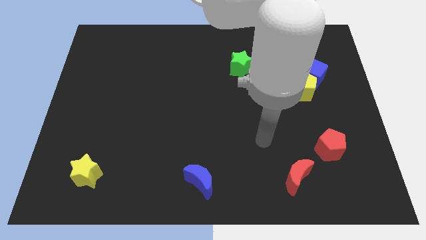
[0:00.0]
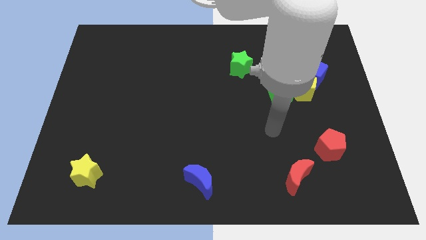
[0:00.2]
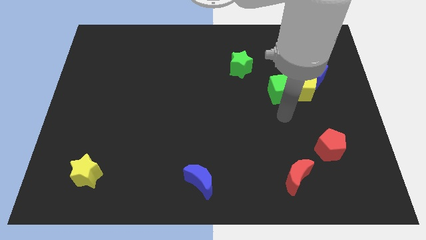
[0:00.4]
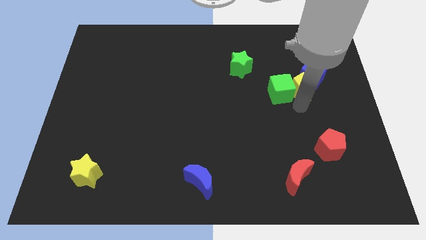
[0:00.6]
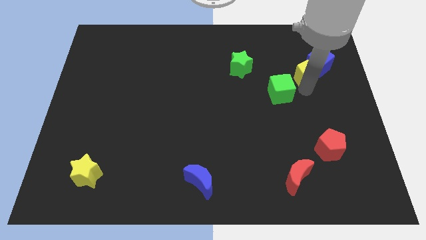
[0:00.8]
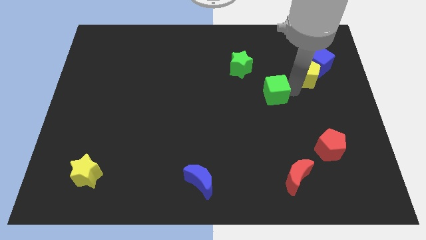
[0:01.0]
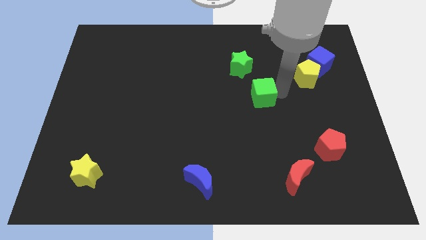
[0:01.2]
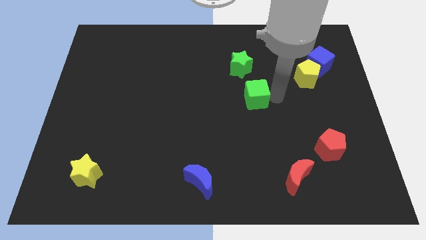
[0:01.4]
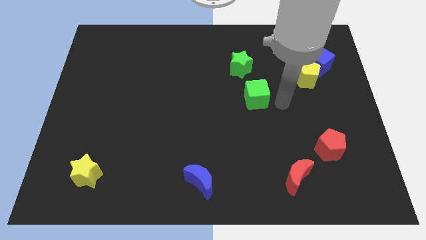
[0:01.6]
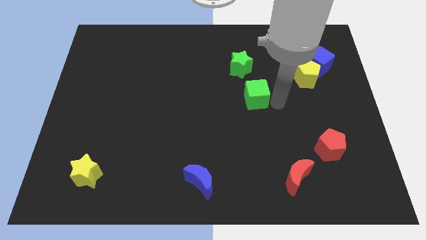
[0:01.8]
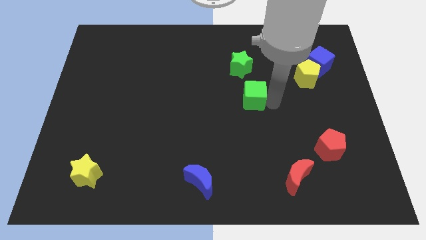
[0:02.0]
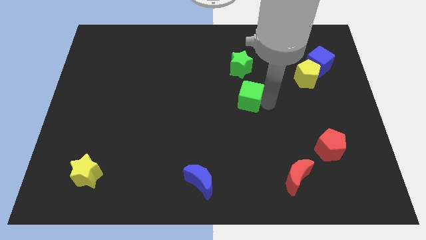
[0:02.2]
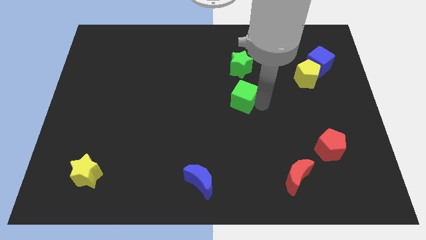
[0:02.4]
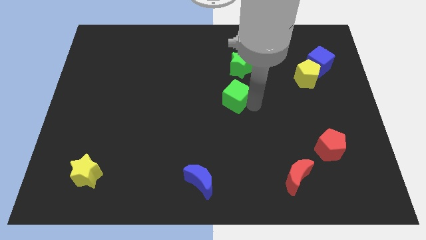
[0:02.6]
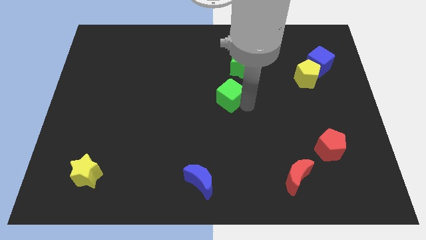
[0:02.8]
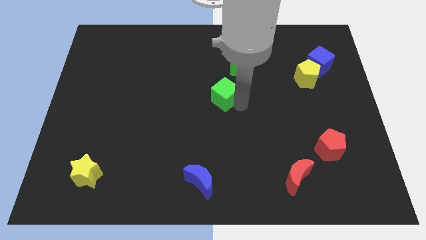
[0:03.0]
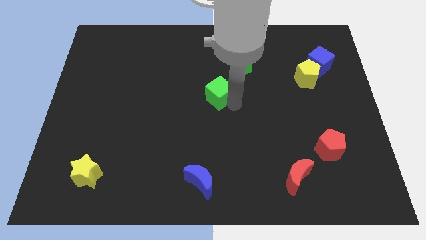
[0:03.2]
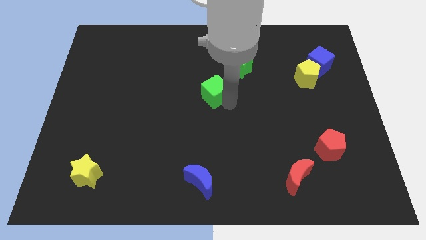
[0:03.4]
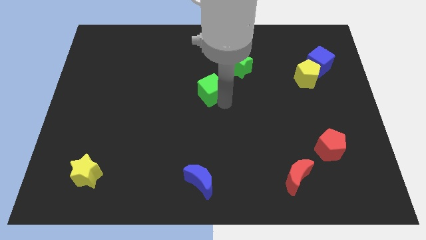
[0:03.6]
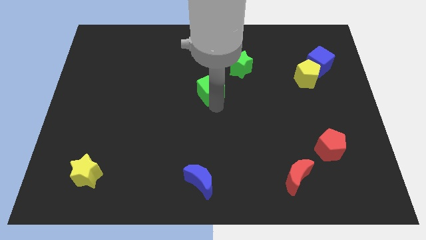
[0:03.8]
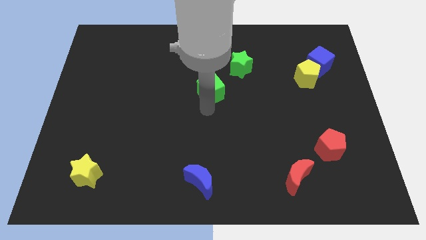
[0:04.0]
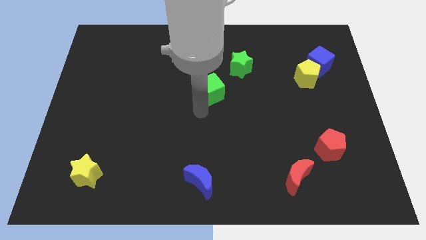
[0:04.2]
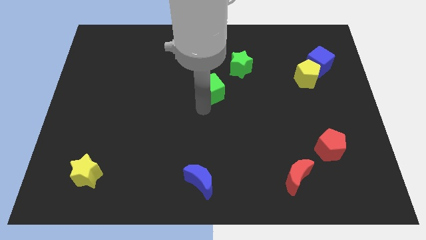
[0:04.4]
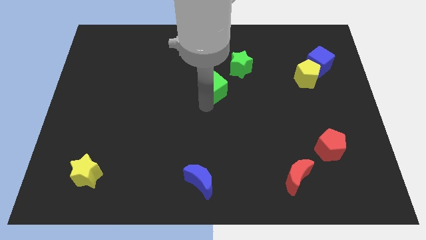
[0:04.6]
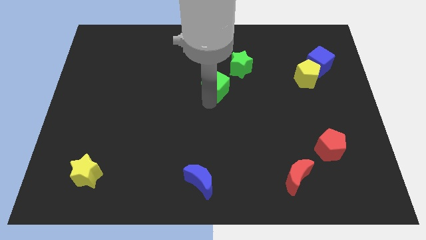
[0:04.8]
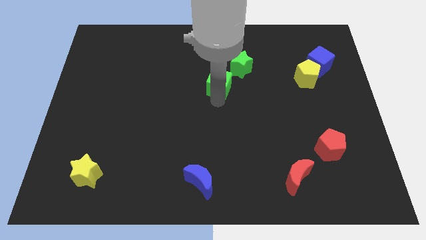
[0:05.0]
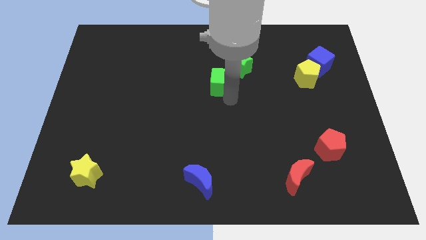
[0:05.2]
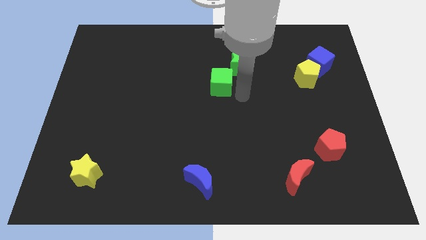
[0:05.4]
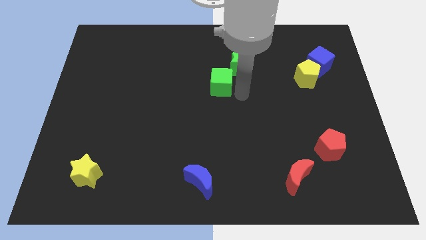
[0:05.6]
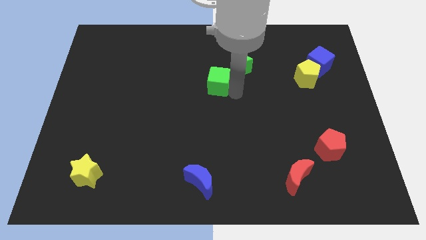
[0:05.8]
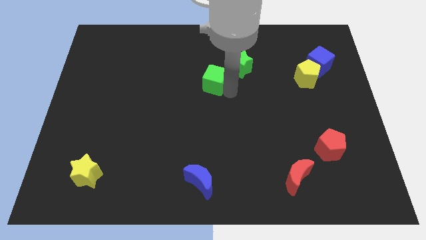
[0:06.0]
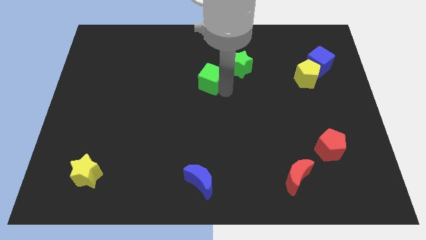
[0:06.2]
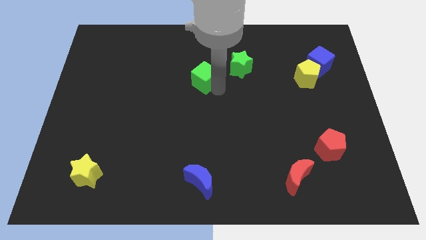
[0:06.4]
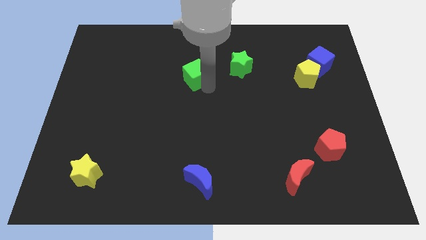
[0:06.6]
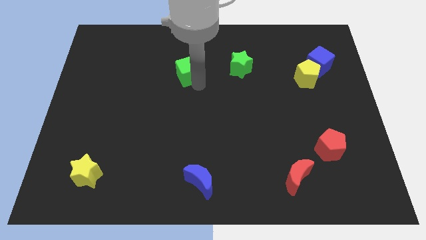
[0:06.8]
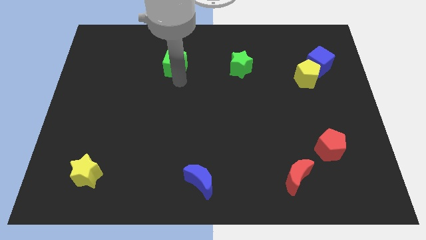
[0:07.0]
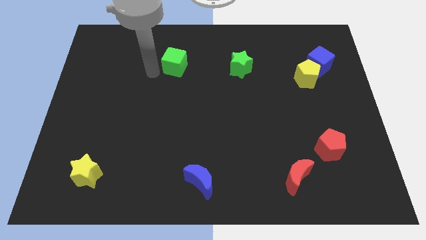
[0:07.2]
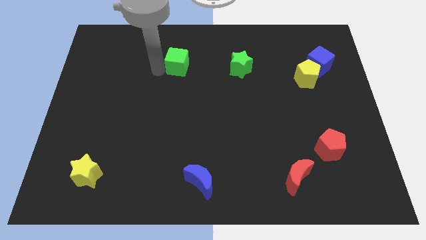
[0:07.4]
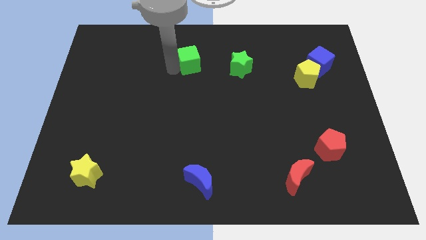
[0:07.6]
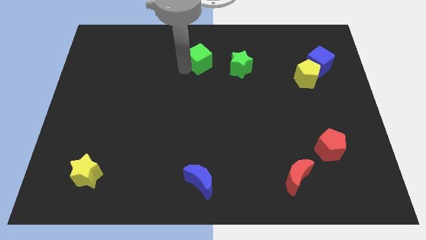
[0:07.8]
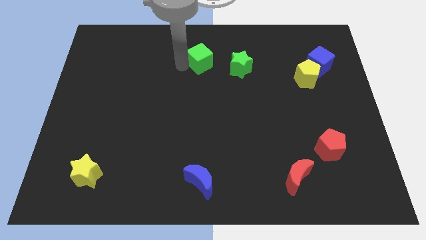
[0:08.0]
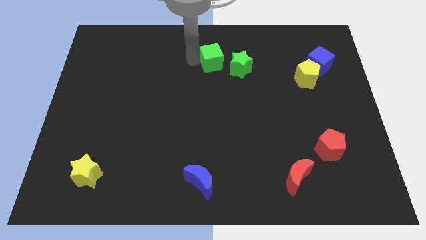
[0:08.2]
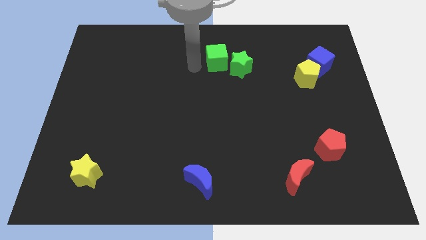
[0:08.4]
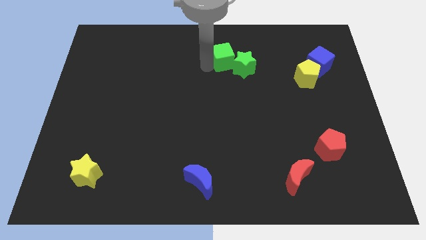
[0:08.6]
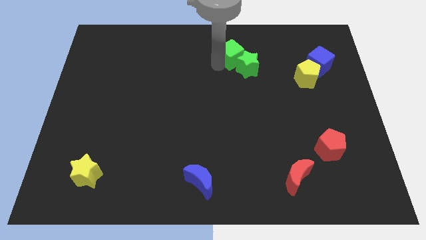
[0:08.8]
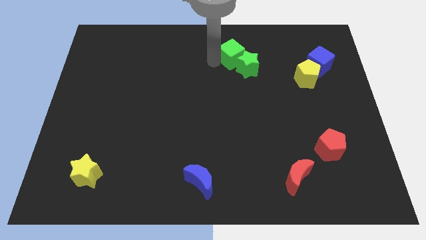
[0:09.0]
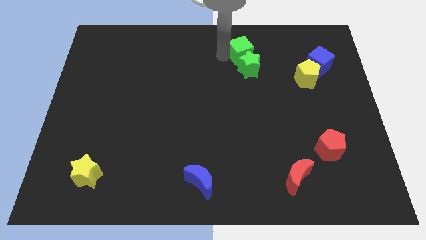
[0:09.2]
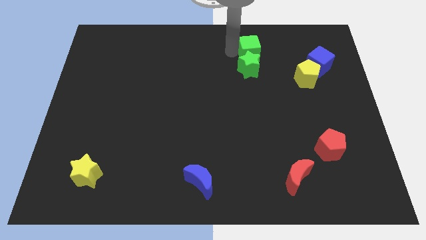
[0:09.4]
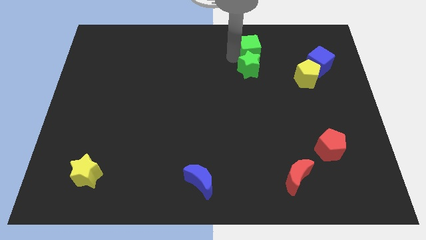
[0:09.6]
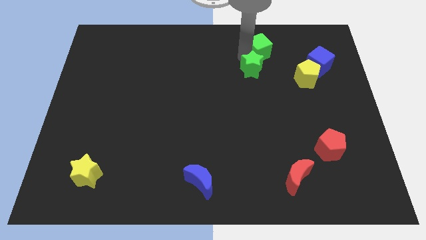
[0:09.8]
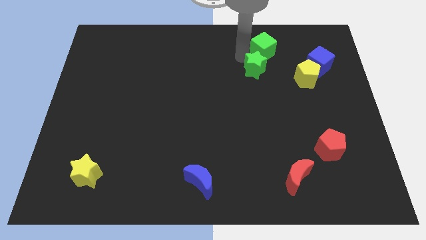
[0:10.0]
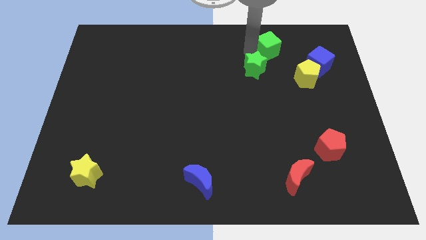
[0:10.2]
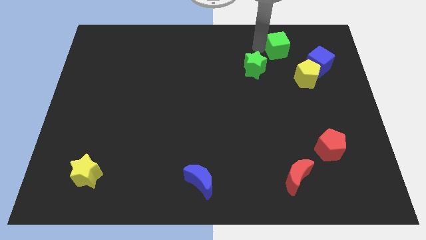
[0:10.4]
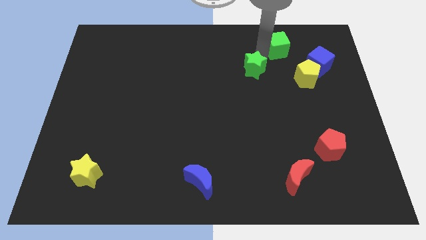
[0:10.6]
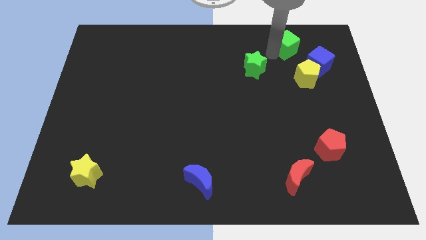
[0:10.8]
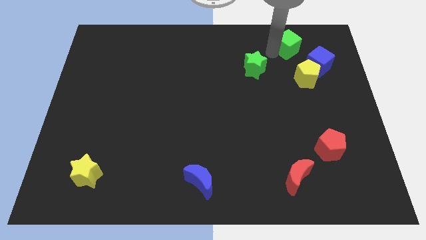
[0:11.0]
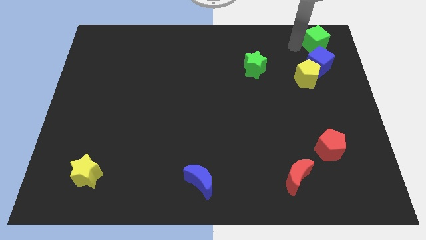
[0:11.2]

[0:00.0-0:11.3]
slide the green cube to the top right corner

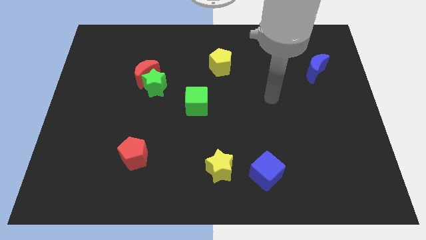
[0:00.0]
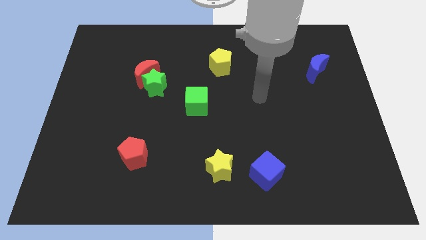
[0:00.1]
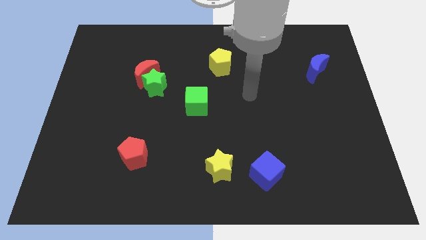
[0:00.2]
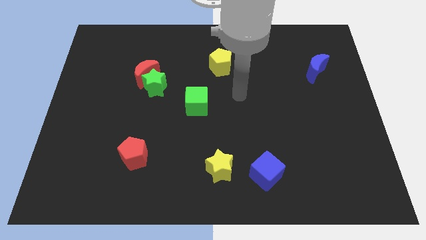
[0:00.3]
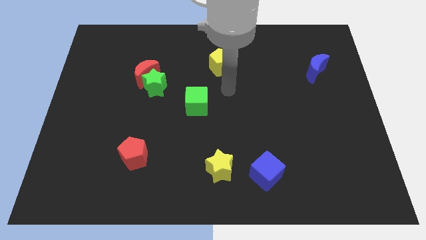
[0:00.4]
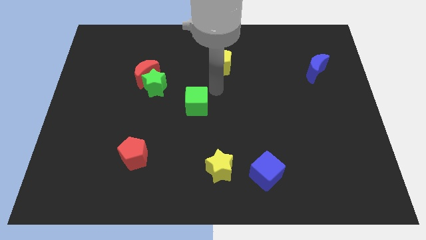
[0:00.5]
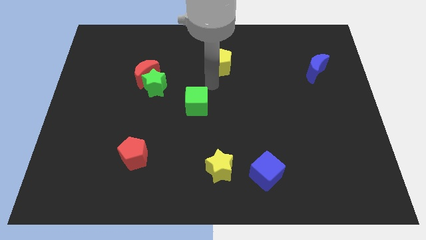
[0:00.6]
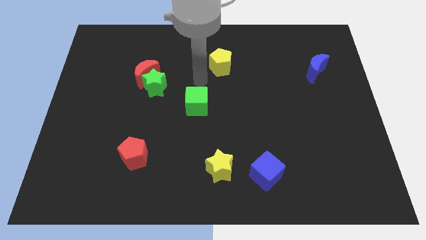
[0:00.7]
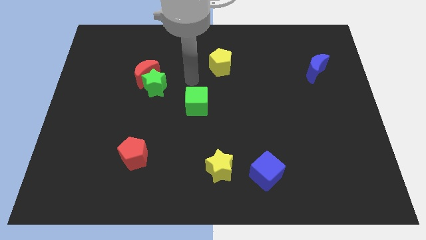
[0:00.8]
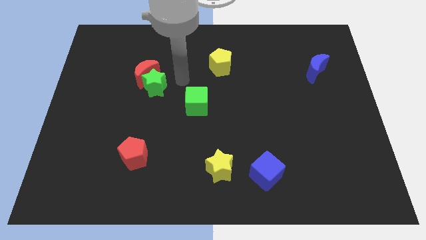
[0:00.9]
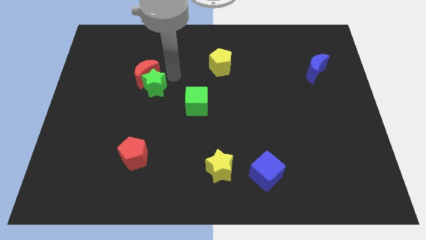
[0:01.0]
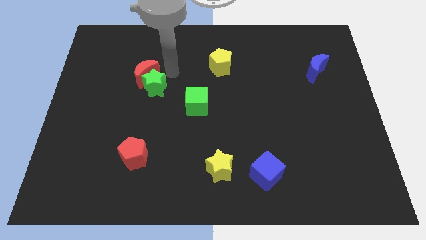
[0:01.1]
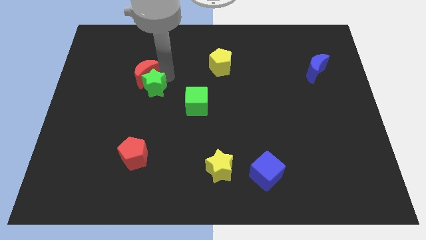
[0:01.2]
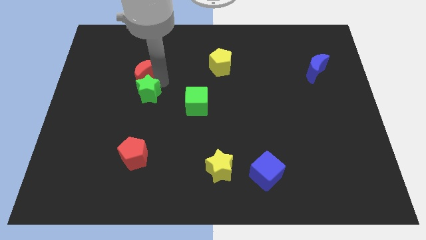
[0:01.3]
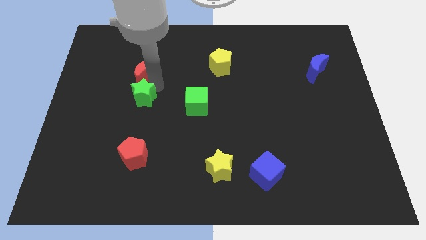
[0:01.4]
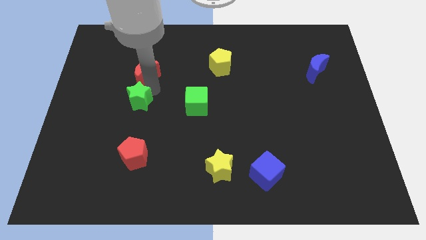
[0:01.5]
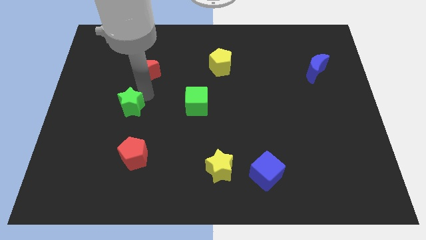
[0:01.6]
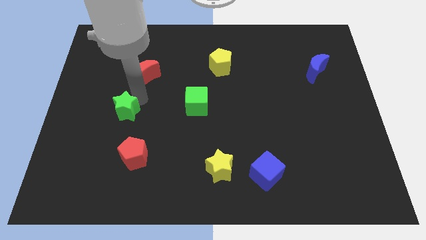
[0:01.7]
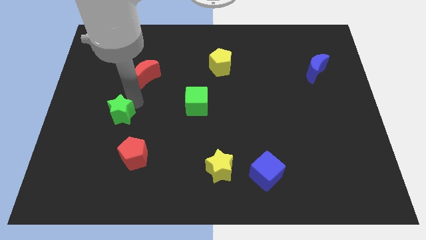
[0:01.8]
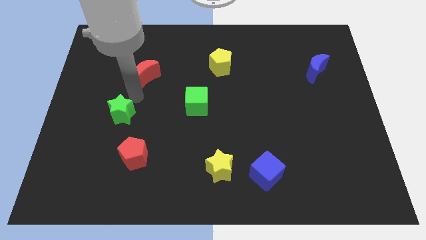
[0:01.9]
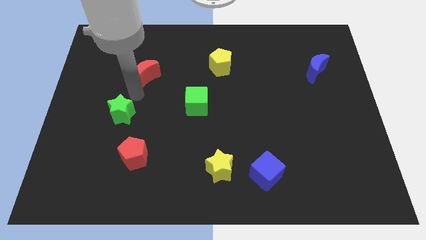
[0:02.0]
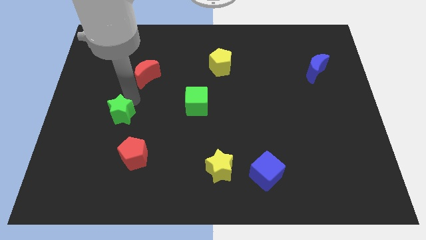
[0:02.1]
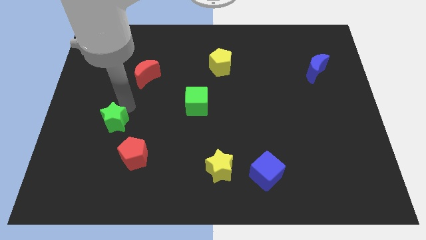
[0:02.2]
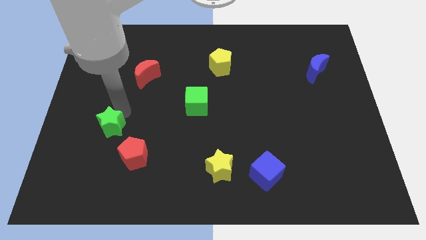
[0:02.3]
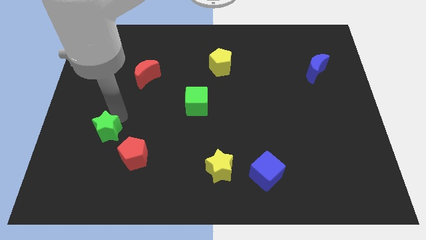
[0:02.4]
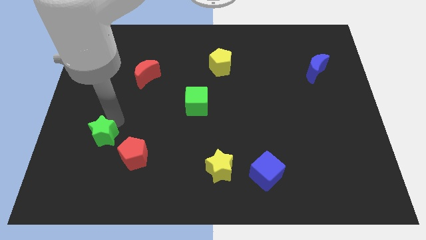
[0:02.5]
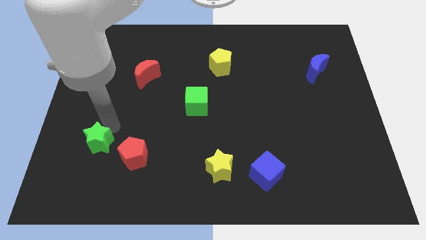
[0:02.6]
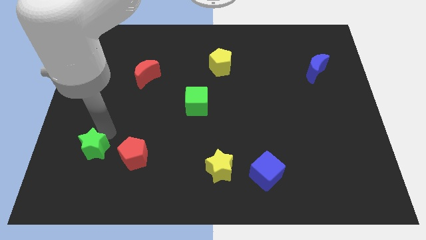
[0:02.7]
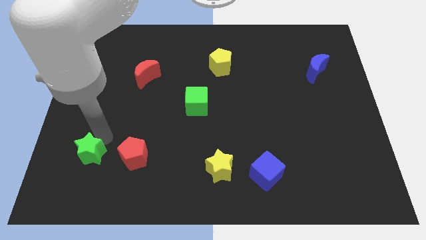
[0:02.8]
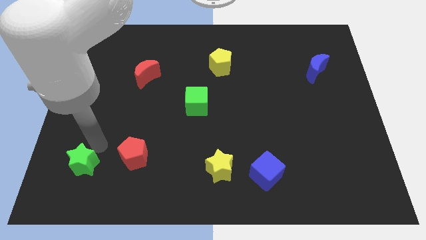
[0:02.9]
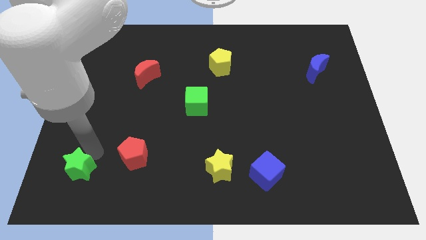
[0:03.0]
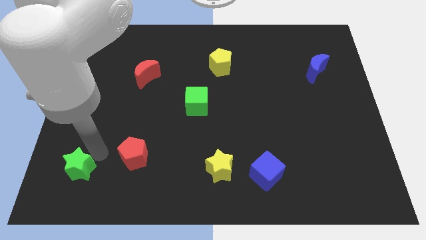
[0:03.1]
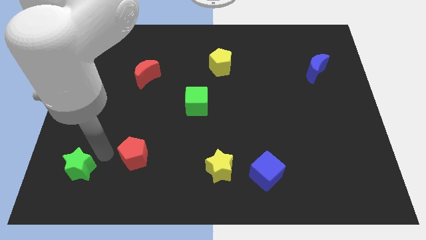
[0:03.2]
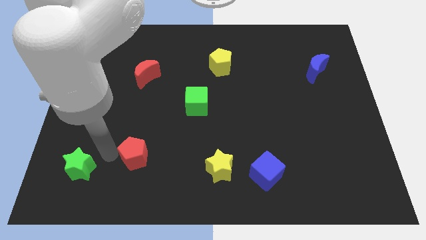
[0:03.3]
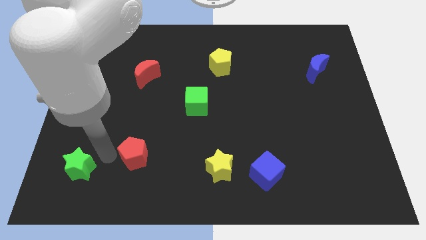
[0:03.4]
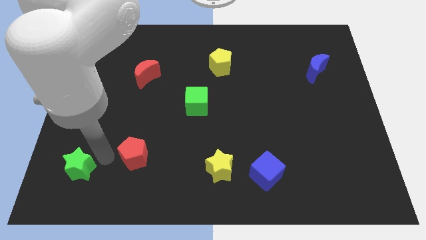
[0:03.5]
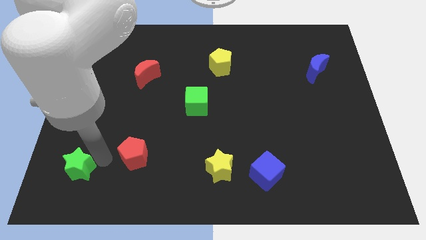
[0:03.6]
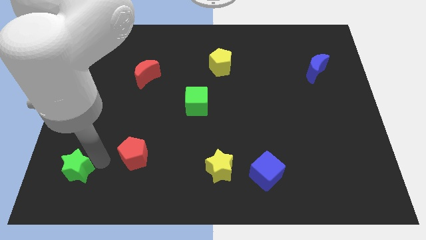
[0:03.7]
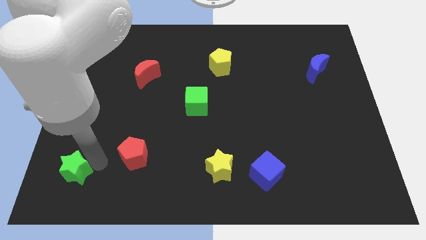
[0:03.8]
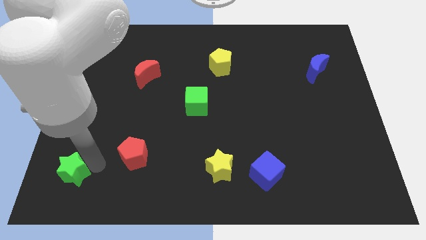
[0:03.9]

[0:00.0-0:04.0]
slide the green star to the bottom left of the board
